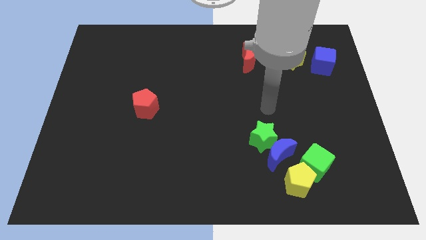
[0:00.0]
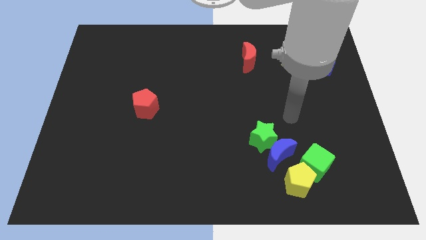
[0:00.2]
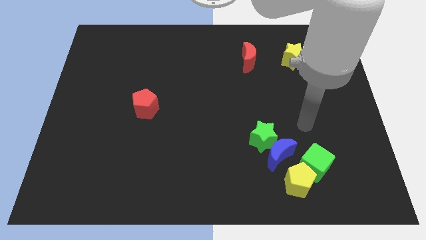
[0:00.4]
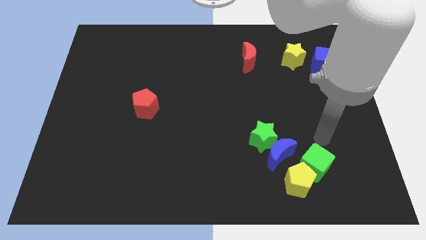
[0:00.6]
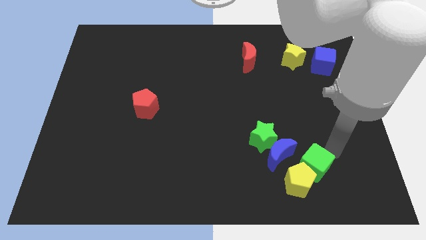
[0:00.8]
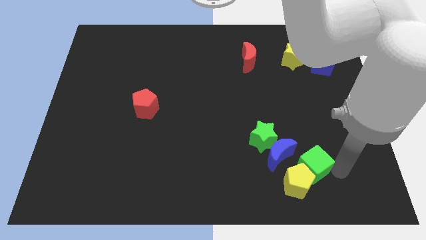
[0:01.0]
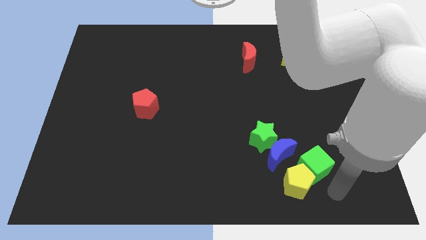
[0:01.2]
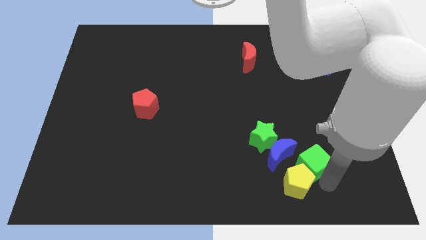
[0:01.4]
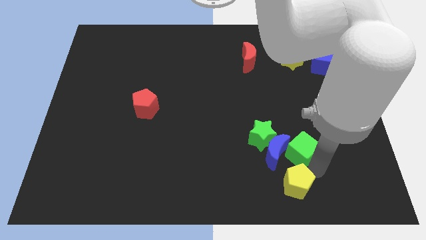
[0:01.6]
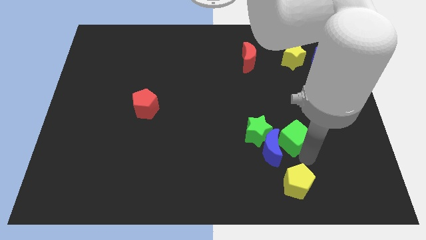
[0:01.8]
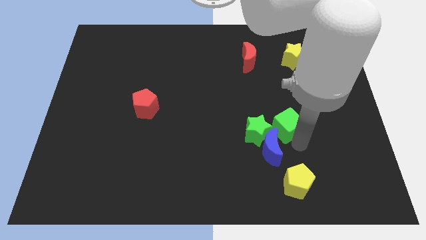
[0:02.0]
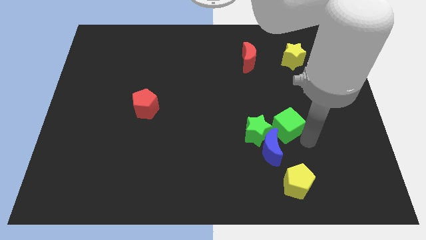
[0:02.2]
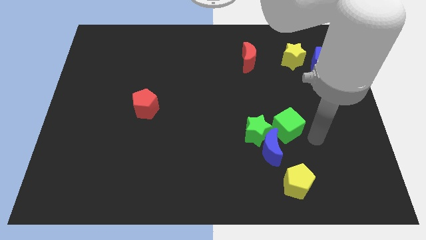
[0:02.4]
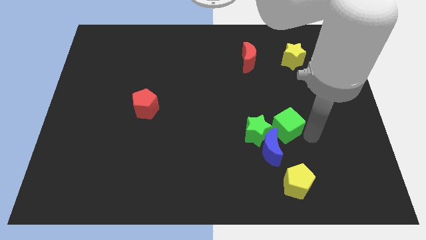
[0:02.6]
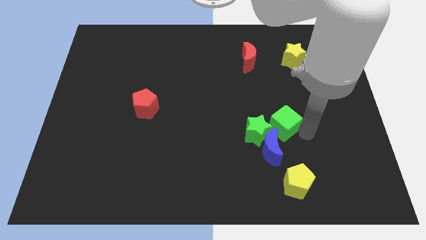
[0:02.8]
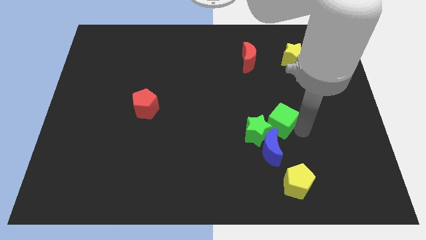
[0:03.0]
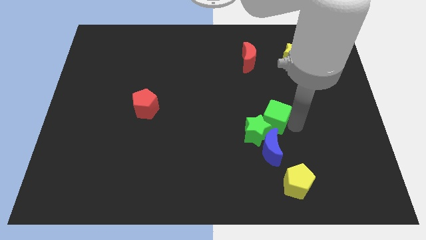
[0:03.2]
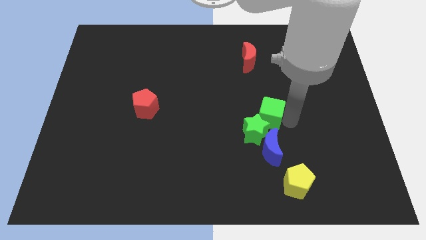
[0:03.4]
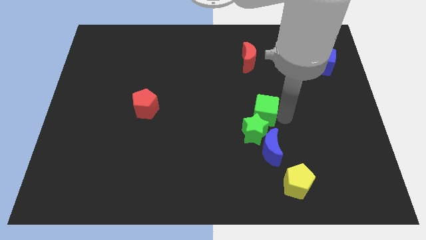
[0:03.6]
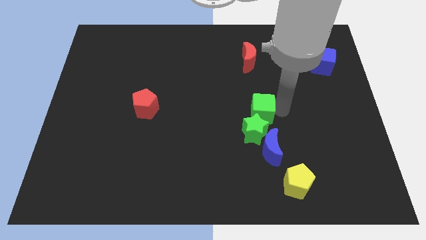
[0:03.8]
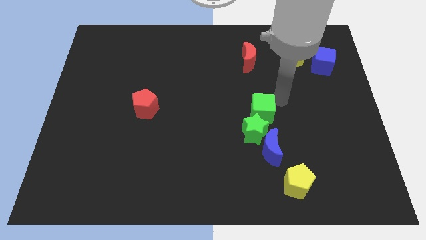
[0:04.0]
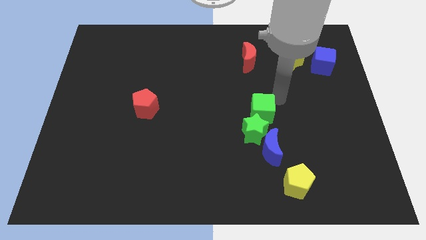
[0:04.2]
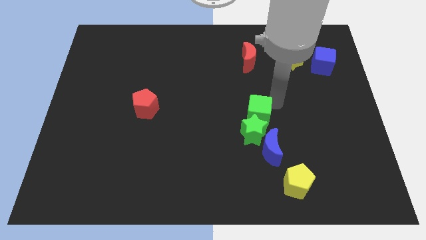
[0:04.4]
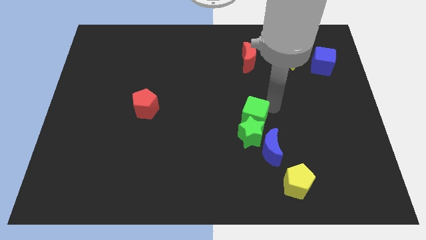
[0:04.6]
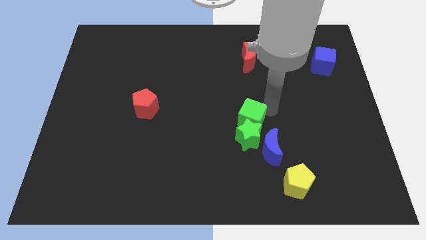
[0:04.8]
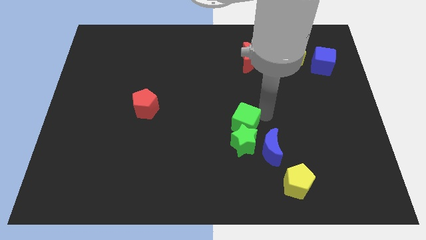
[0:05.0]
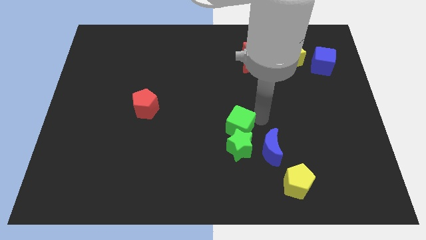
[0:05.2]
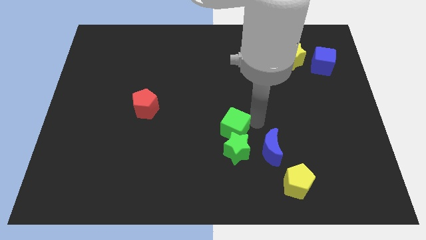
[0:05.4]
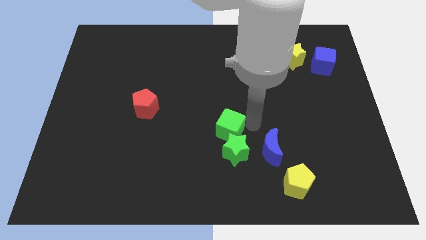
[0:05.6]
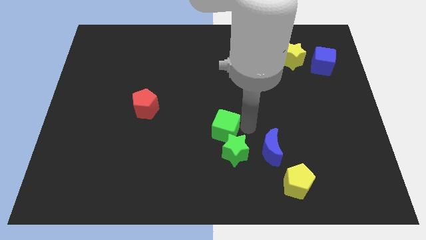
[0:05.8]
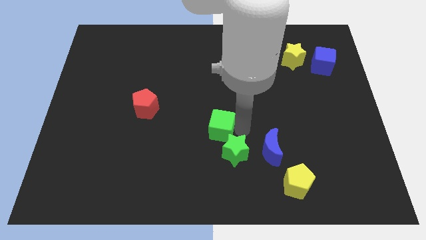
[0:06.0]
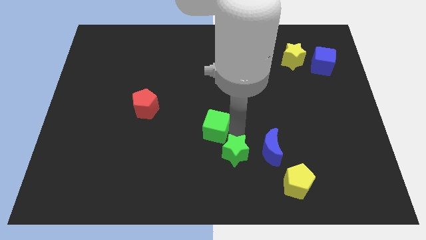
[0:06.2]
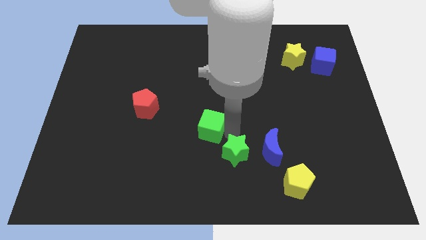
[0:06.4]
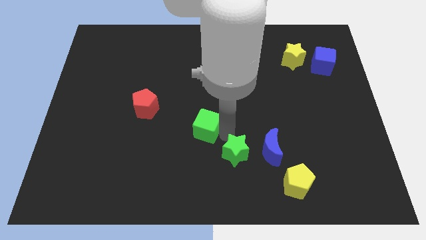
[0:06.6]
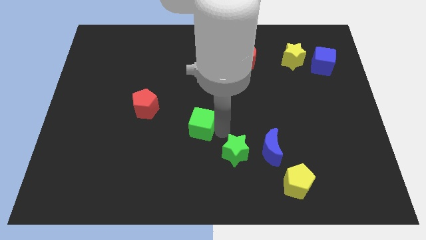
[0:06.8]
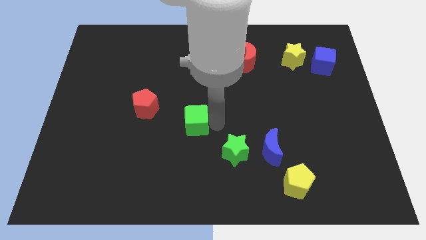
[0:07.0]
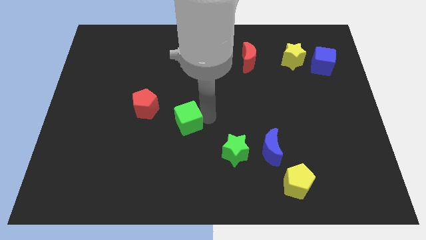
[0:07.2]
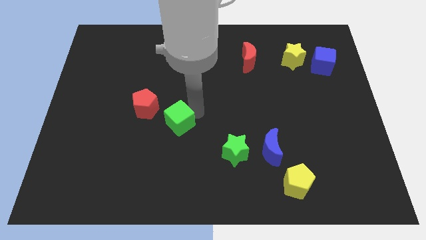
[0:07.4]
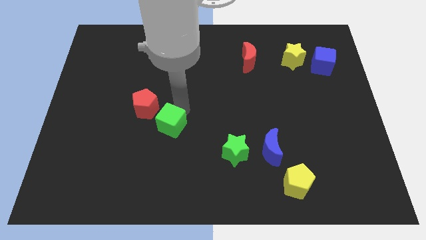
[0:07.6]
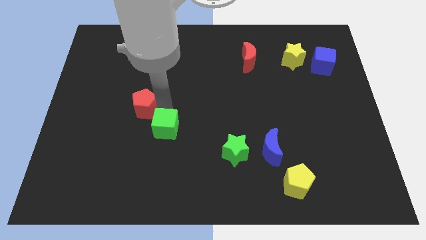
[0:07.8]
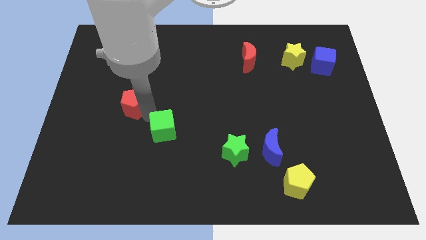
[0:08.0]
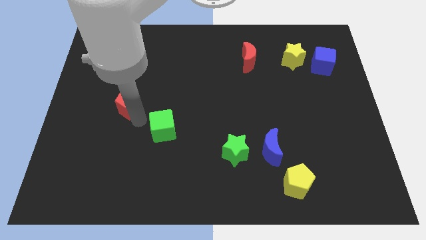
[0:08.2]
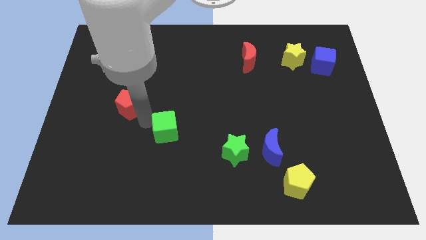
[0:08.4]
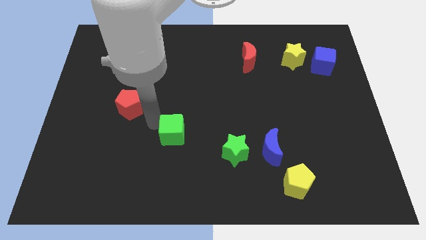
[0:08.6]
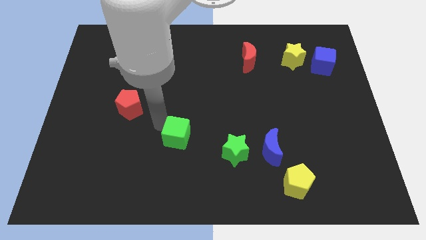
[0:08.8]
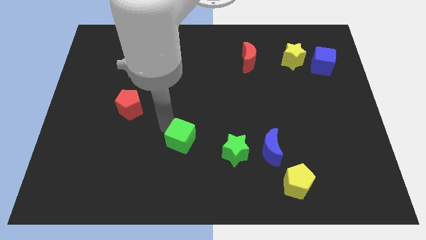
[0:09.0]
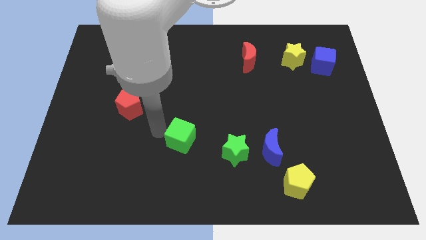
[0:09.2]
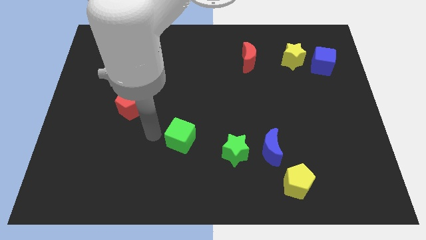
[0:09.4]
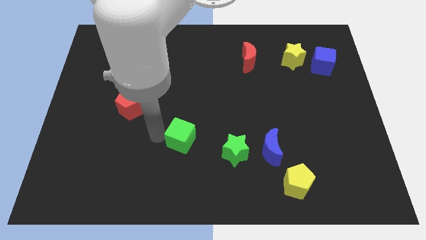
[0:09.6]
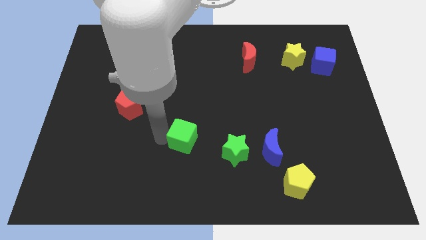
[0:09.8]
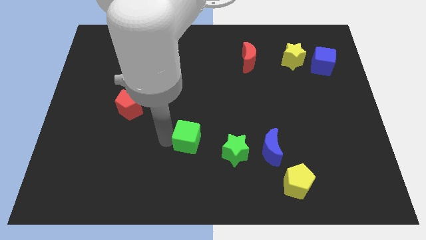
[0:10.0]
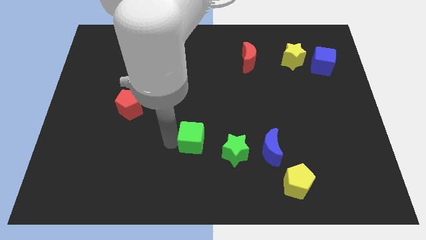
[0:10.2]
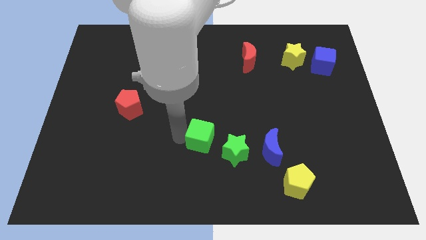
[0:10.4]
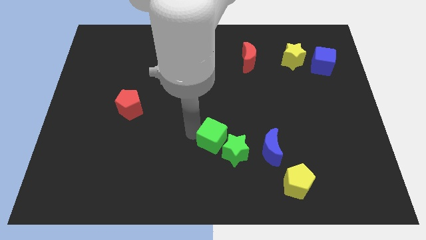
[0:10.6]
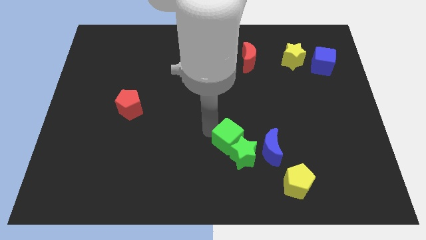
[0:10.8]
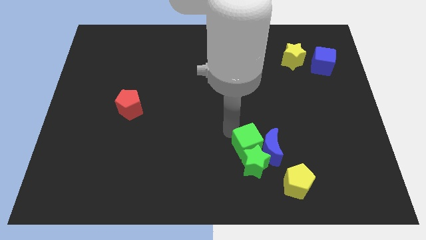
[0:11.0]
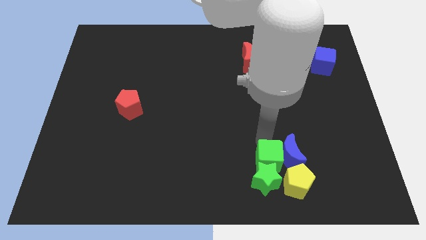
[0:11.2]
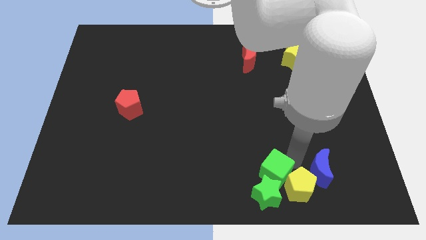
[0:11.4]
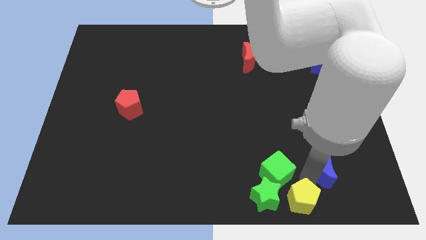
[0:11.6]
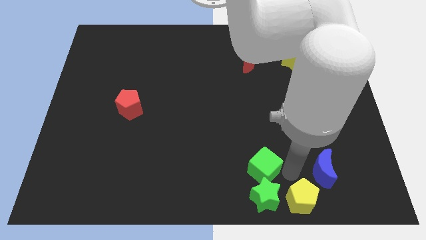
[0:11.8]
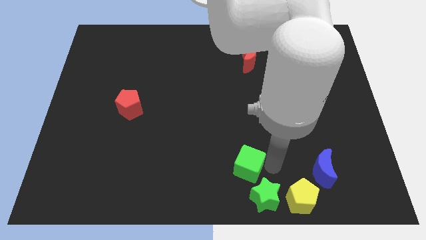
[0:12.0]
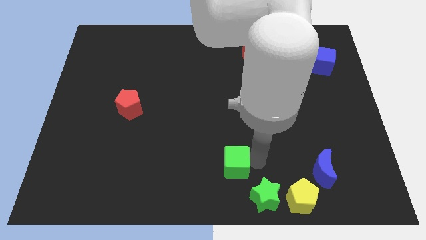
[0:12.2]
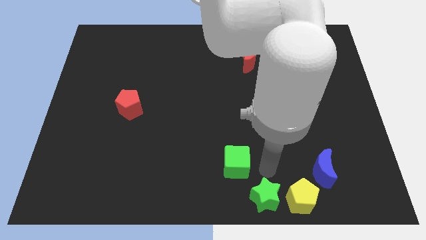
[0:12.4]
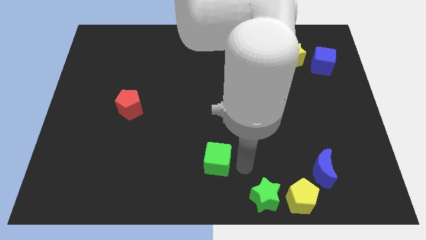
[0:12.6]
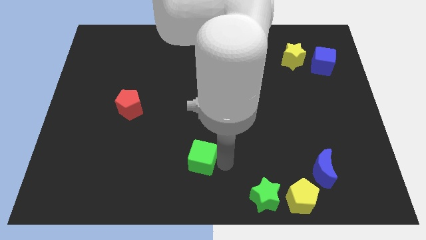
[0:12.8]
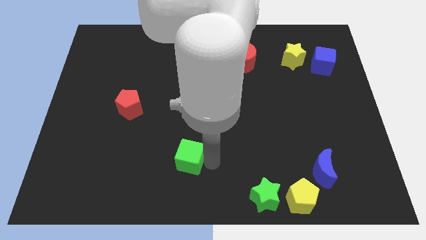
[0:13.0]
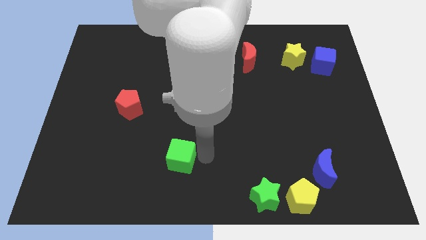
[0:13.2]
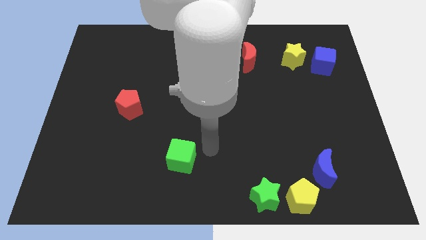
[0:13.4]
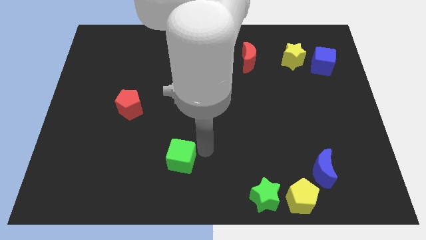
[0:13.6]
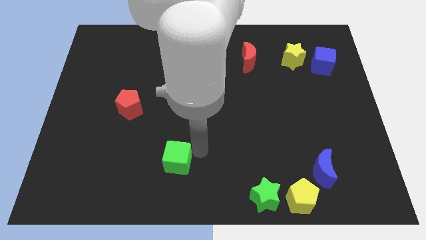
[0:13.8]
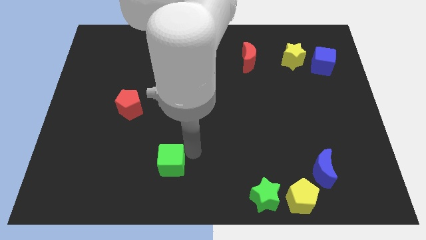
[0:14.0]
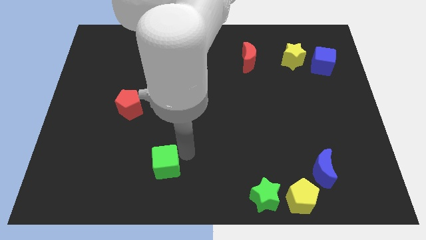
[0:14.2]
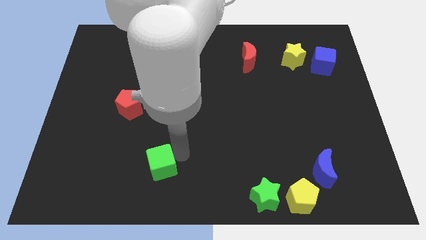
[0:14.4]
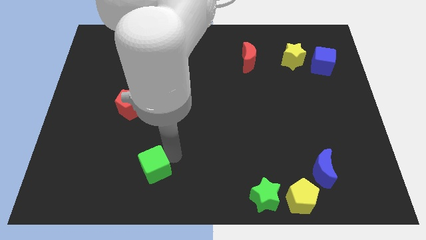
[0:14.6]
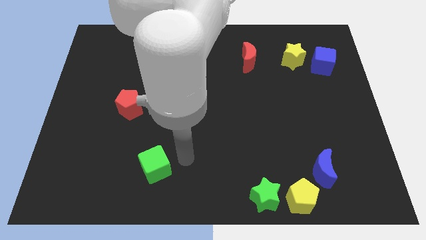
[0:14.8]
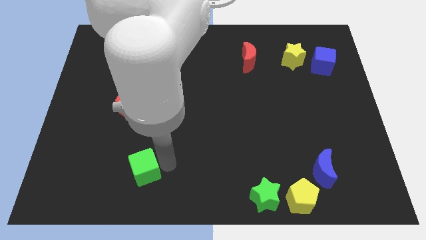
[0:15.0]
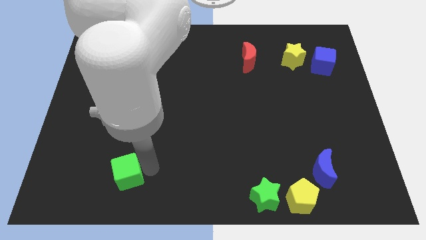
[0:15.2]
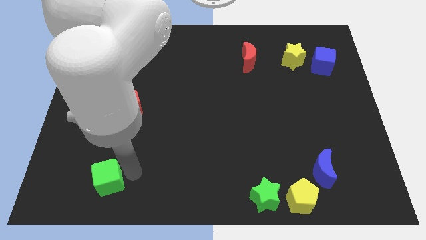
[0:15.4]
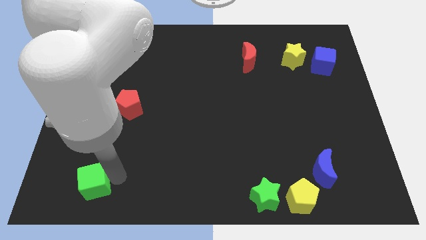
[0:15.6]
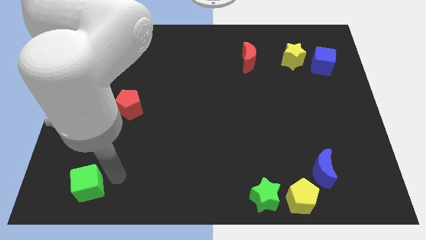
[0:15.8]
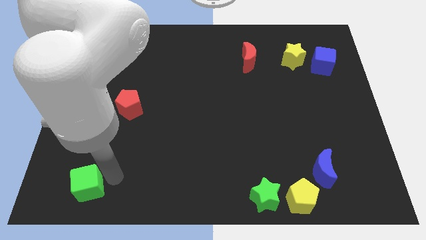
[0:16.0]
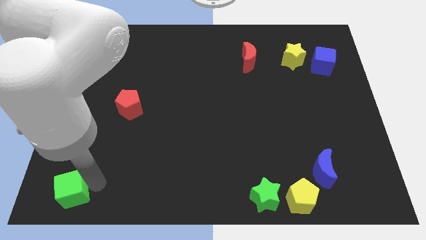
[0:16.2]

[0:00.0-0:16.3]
move the green cube to the lower left corner
